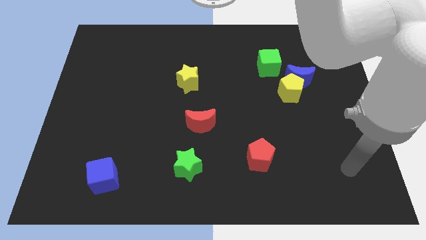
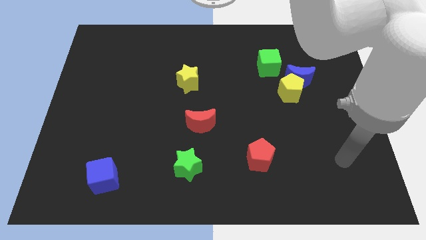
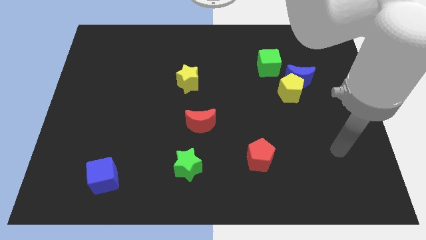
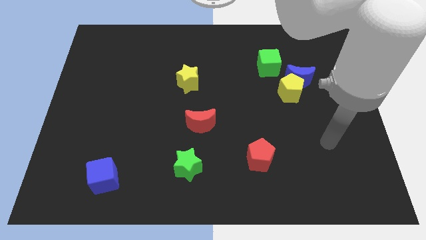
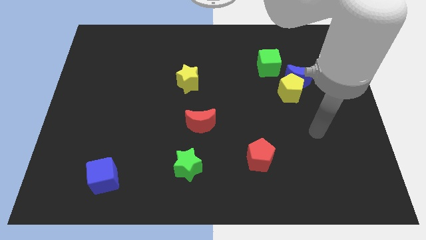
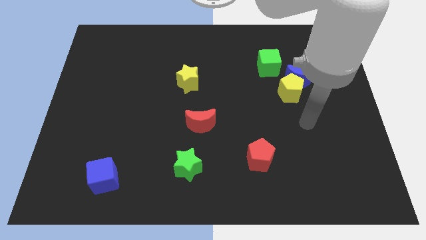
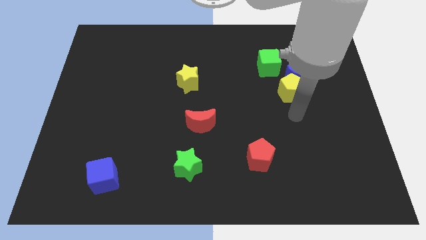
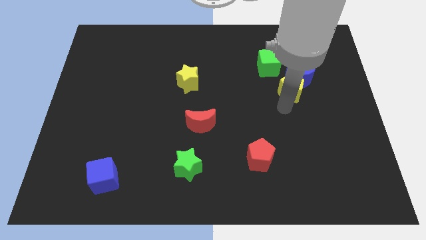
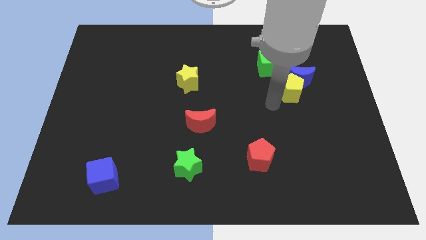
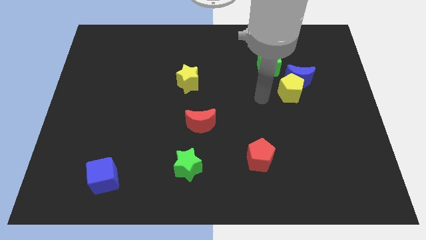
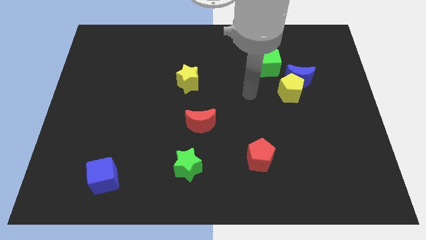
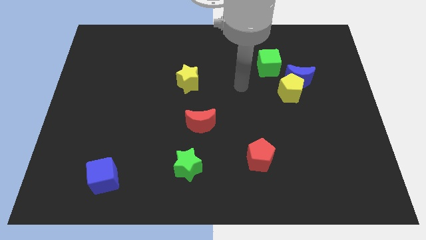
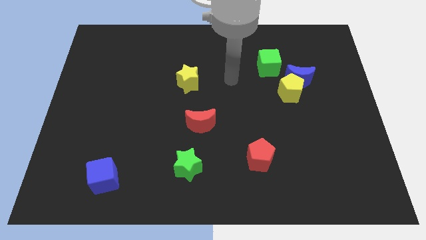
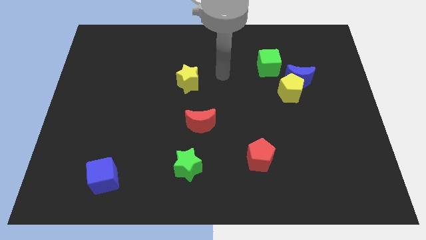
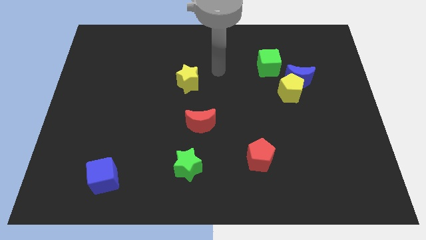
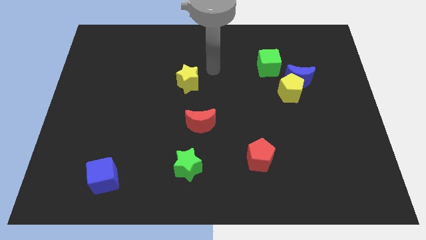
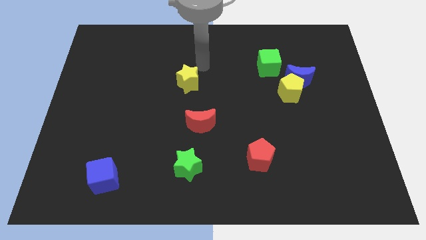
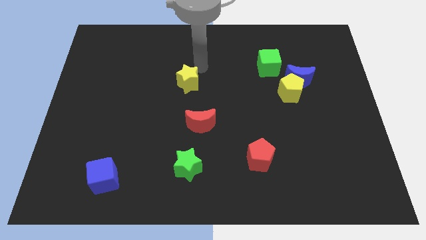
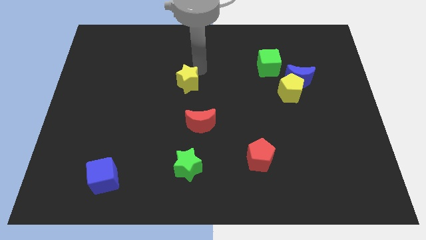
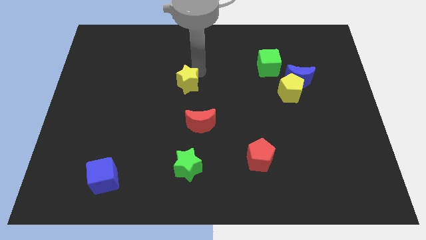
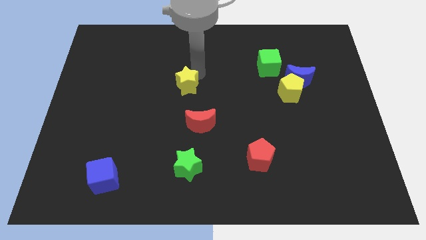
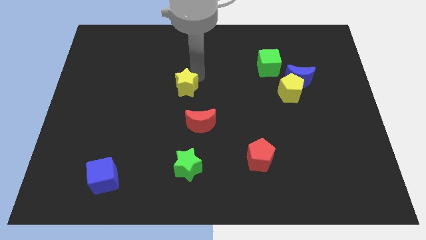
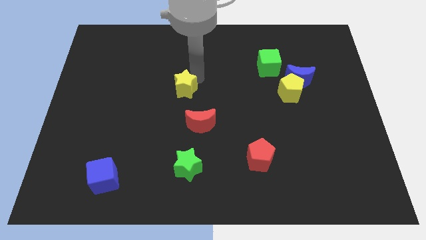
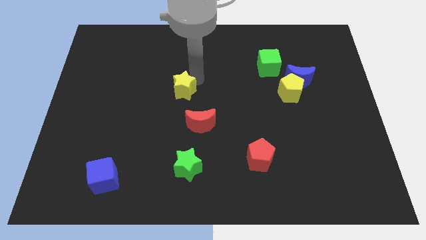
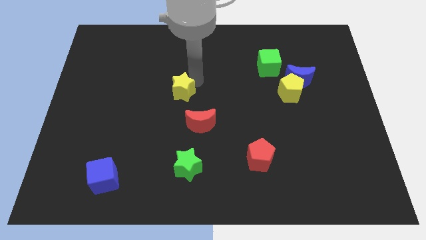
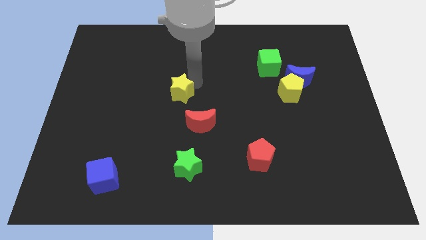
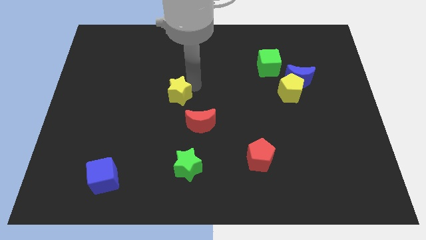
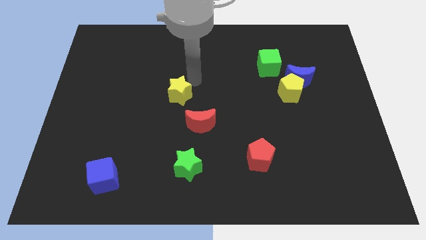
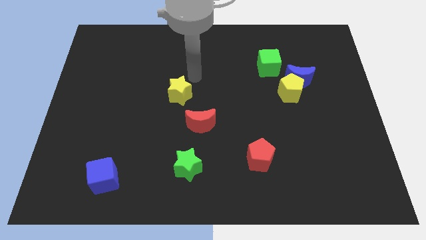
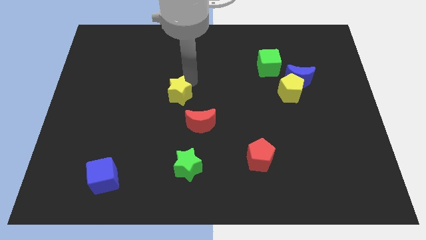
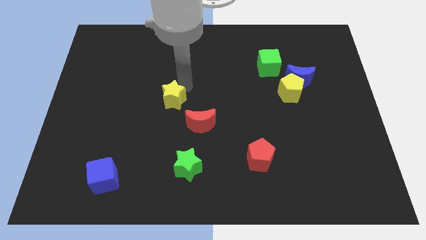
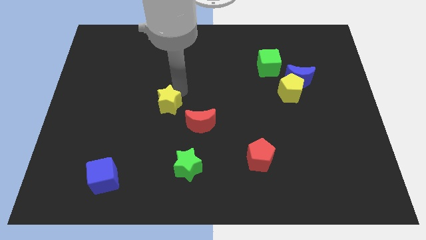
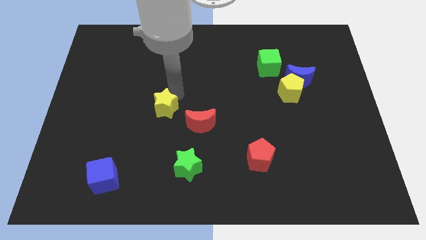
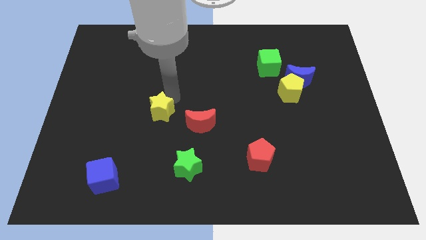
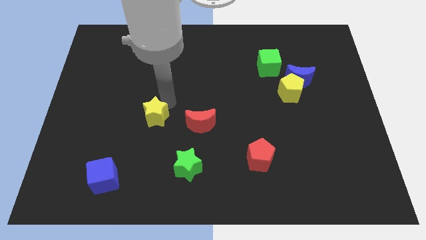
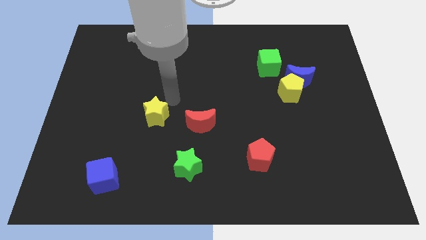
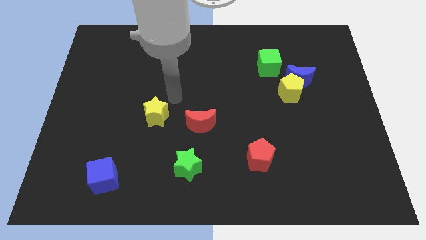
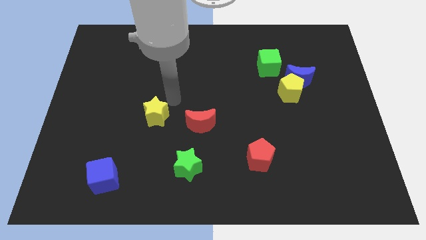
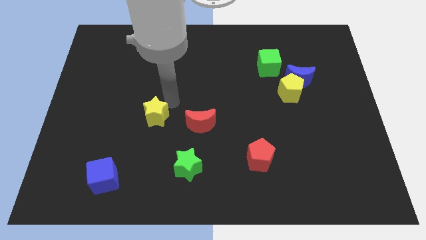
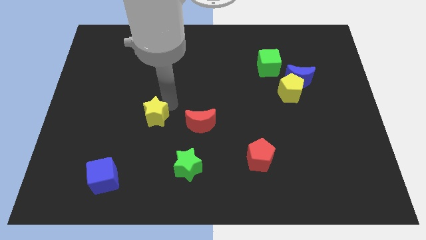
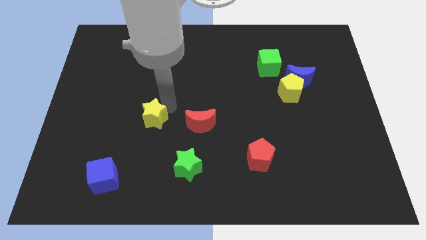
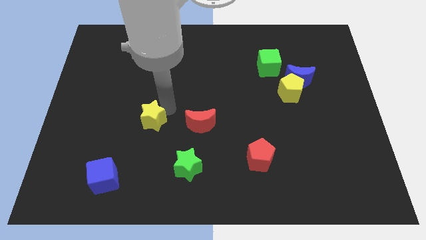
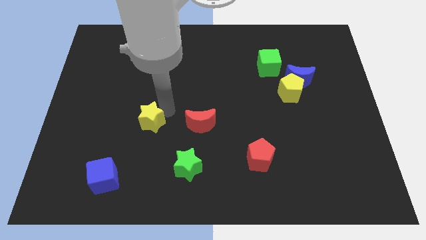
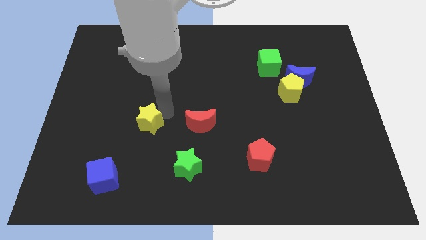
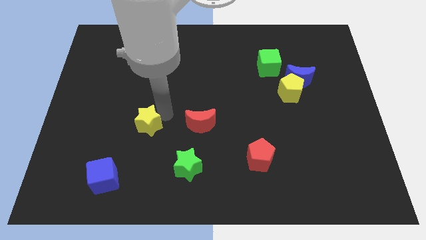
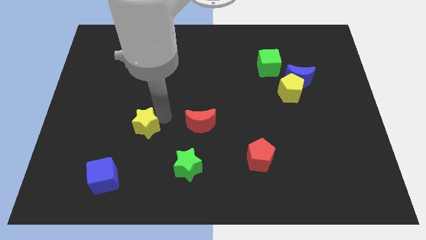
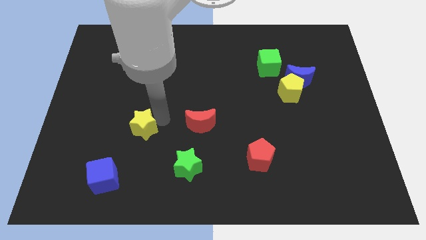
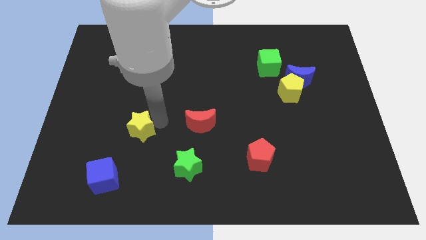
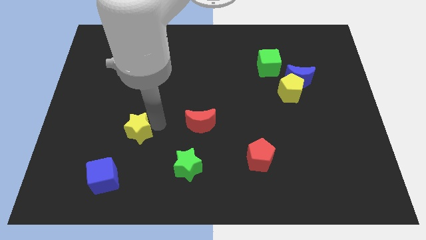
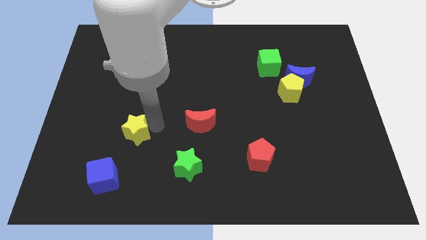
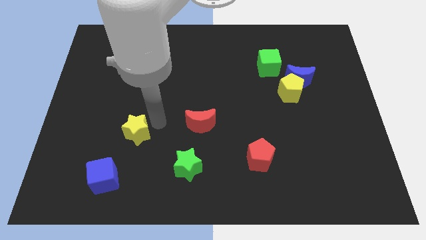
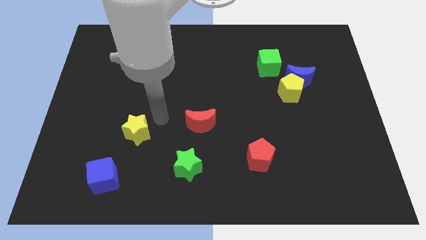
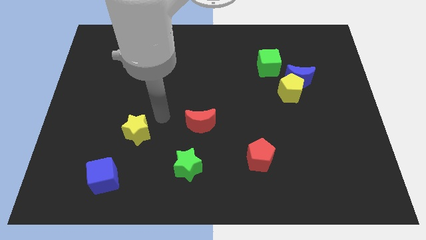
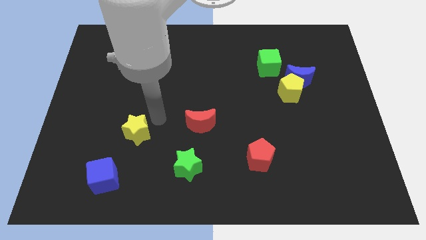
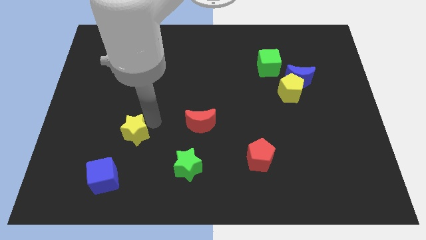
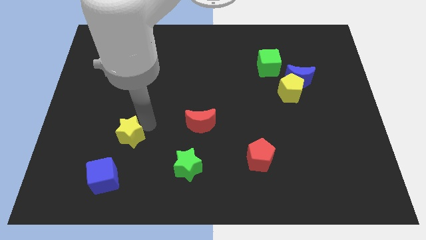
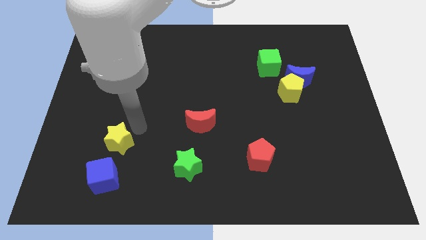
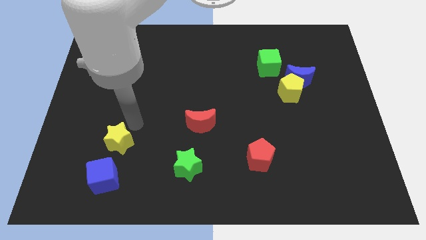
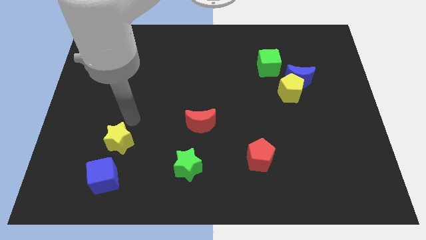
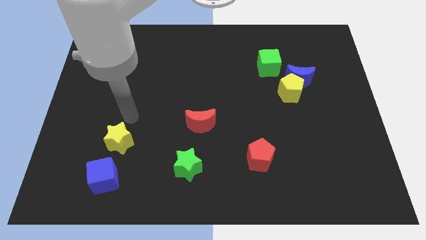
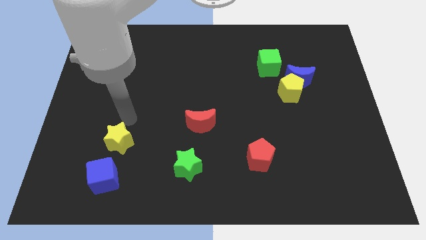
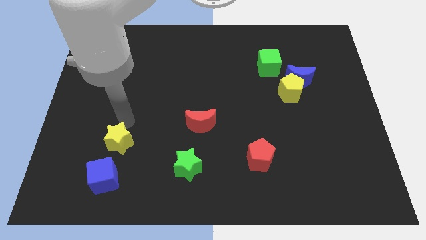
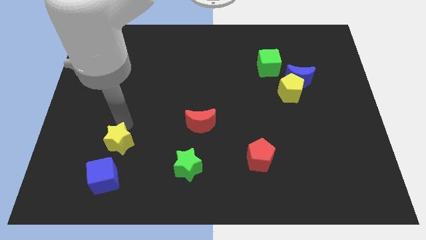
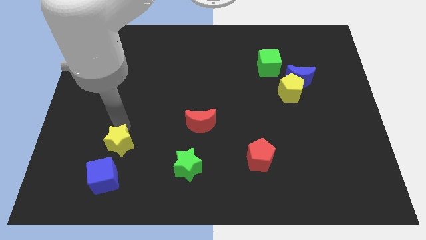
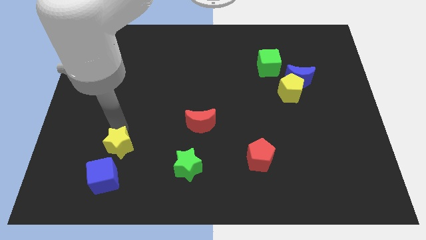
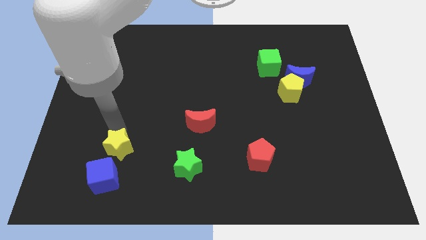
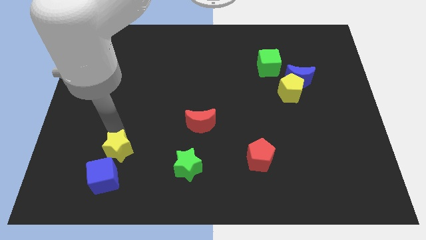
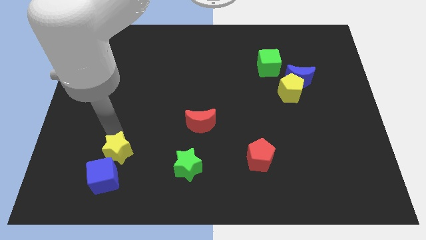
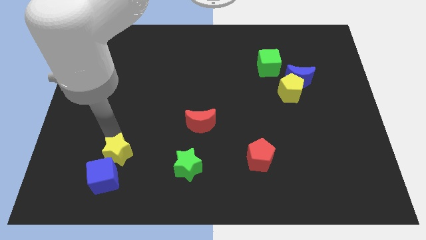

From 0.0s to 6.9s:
slide the yellow star next to the blue cube

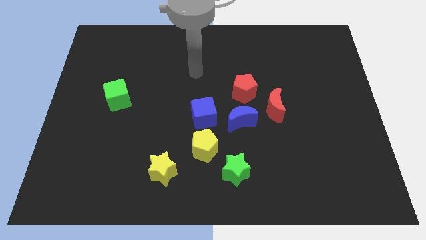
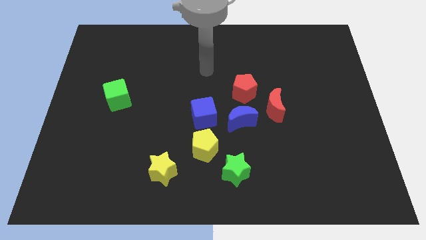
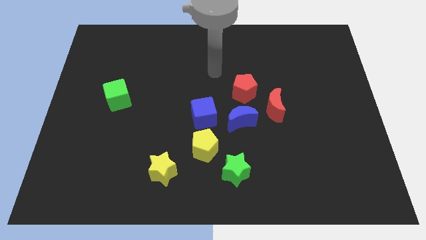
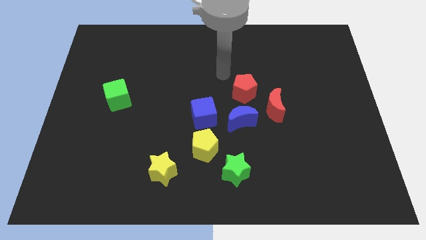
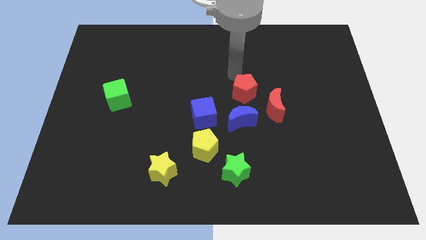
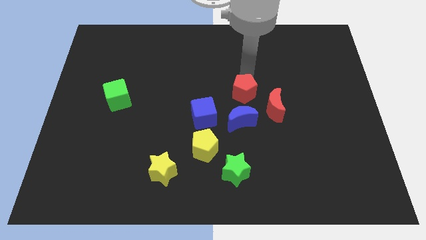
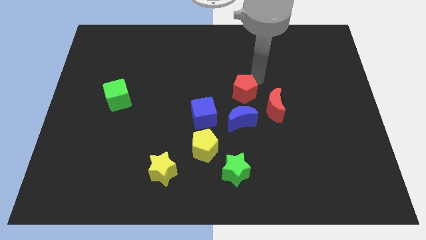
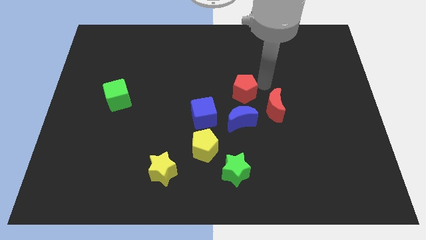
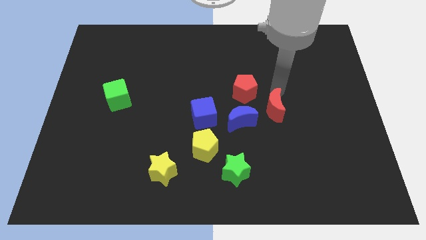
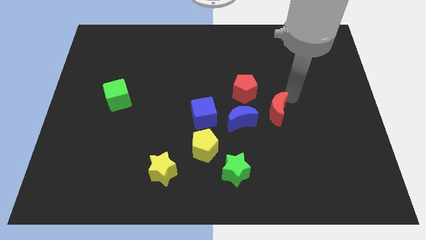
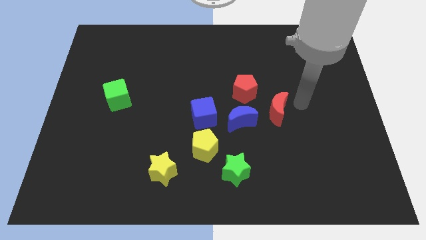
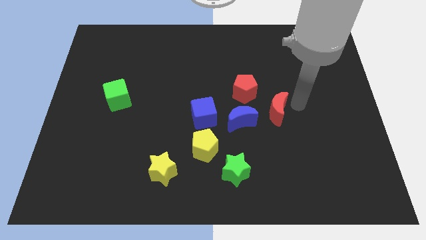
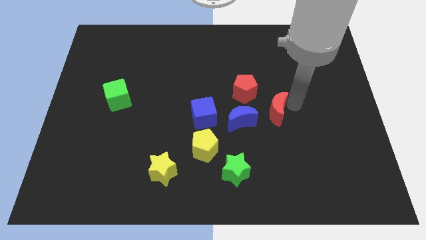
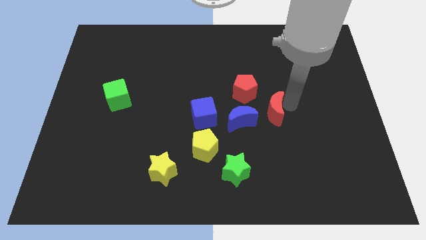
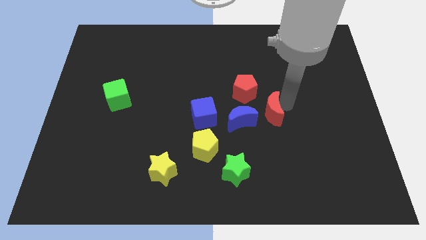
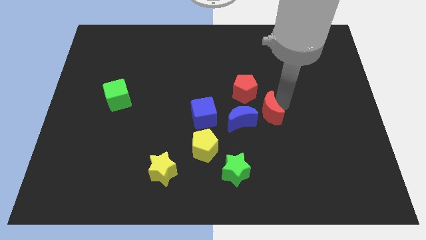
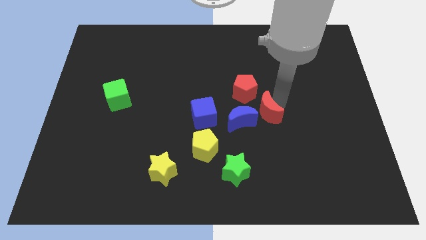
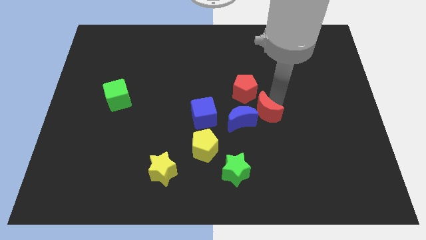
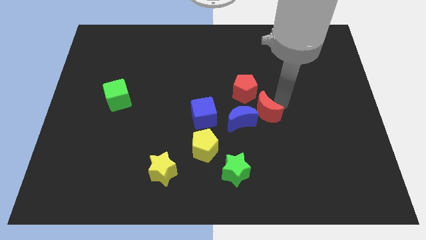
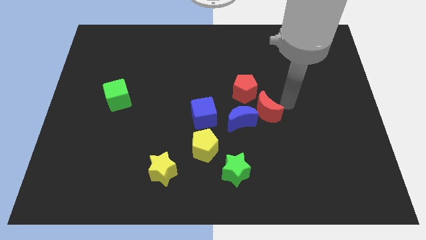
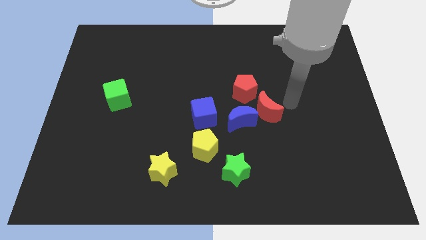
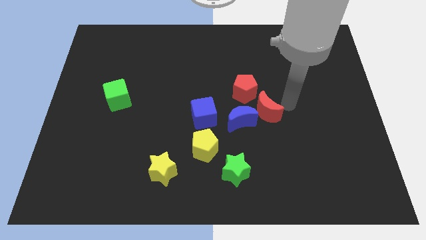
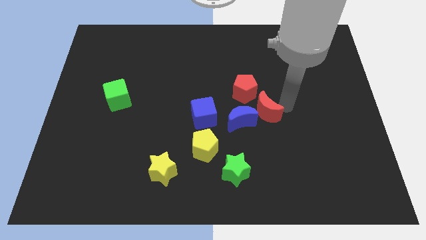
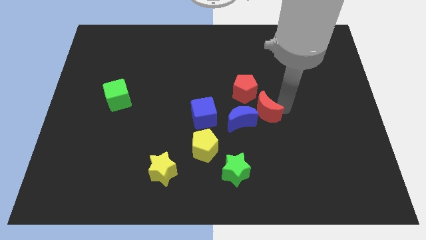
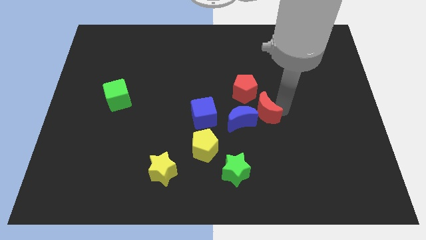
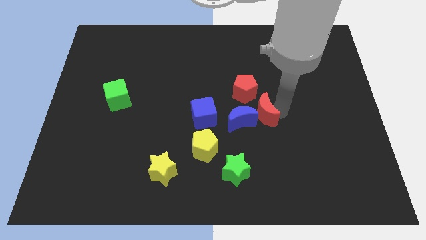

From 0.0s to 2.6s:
put the red moon close to the blue moon
